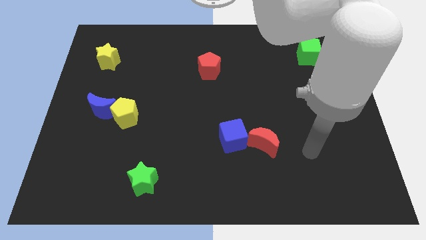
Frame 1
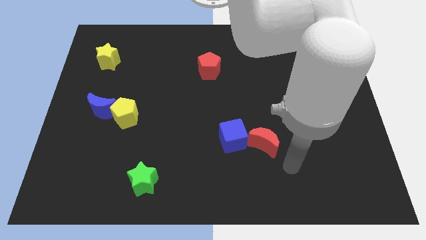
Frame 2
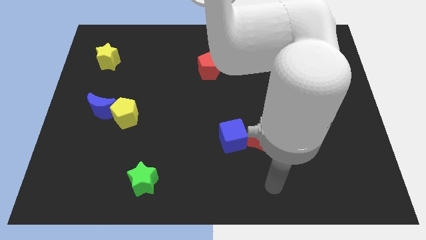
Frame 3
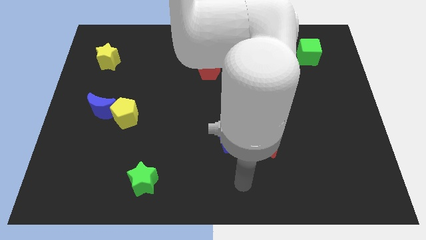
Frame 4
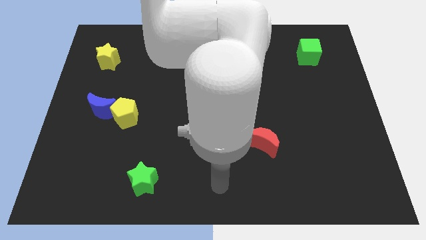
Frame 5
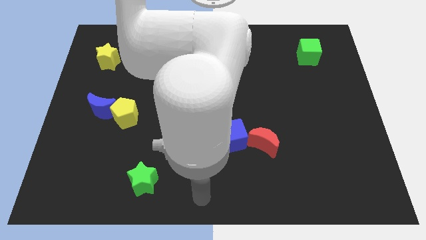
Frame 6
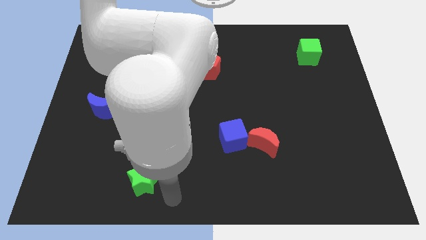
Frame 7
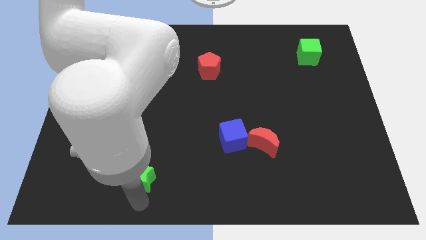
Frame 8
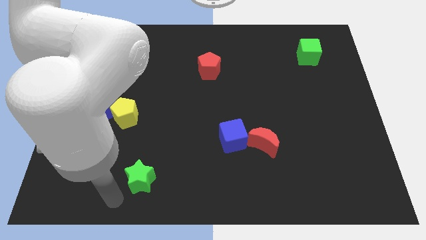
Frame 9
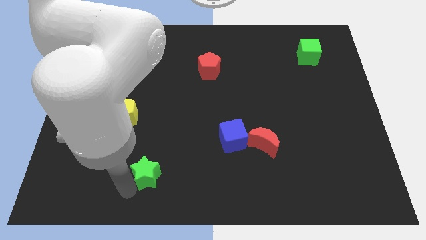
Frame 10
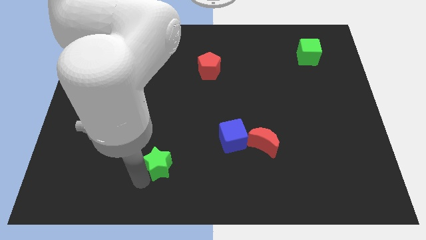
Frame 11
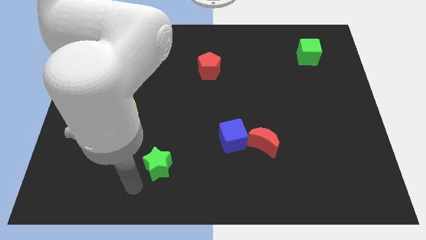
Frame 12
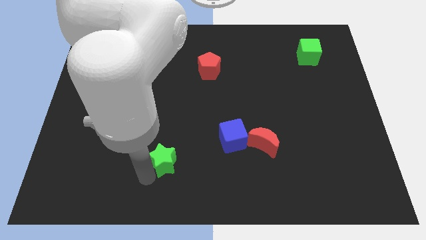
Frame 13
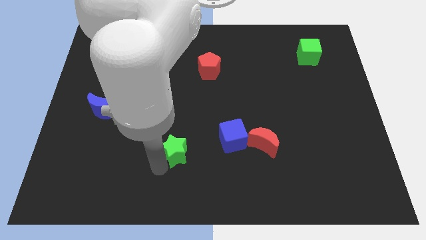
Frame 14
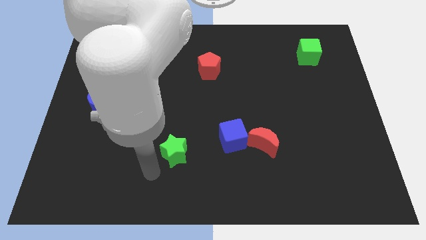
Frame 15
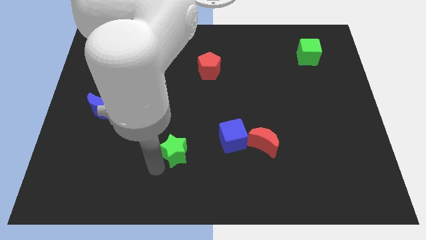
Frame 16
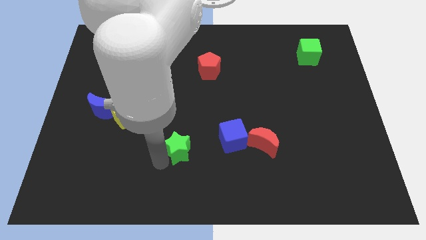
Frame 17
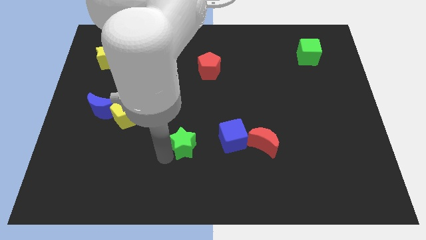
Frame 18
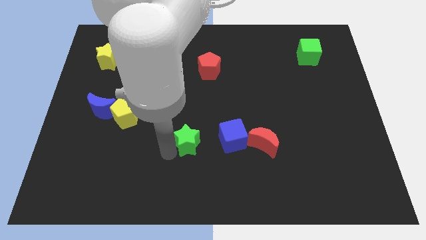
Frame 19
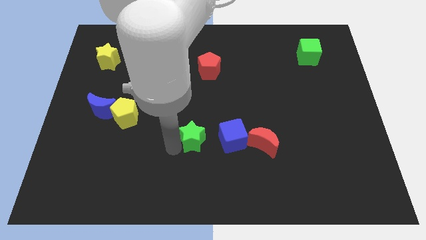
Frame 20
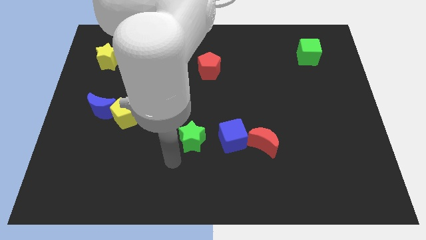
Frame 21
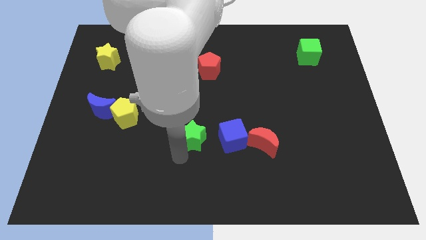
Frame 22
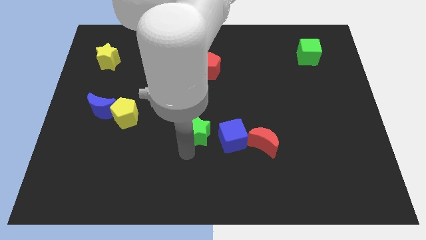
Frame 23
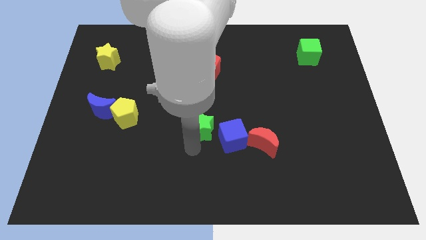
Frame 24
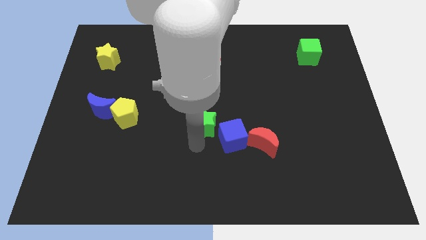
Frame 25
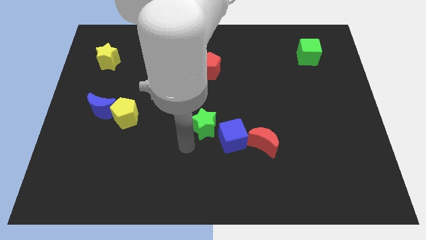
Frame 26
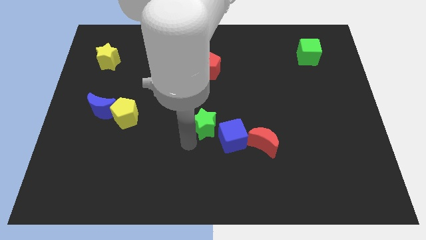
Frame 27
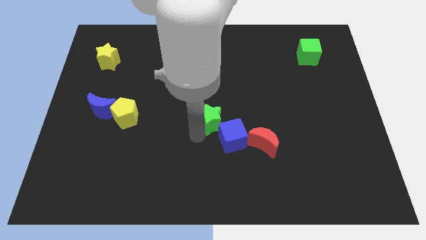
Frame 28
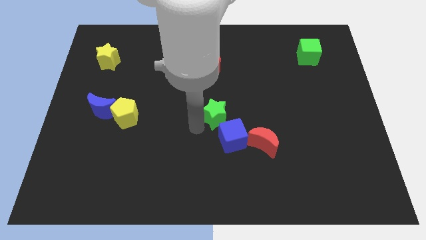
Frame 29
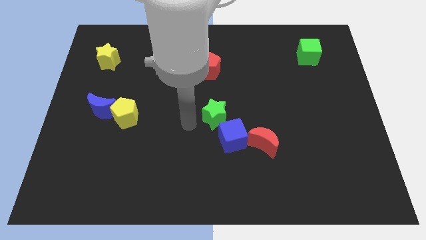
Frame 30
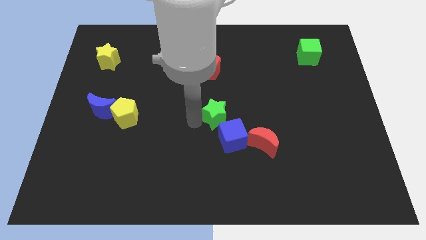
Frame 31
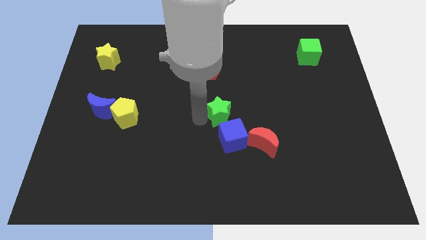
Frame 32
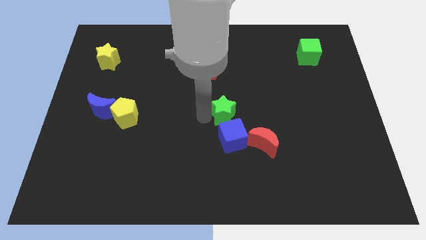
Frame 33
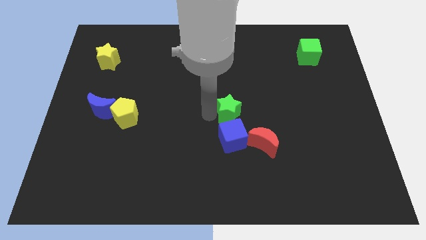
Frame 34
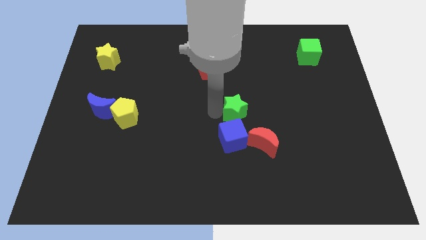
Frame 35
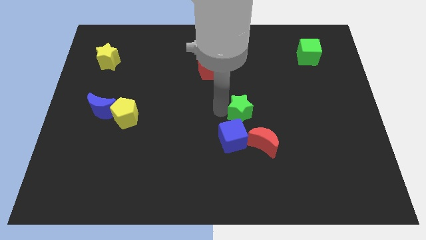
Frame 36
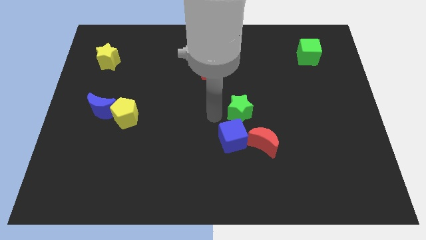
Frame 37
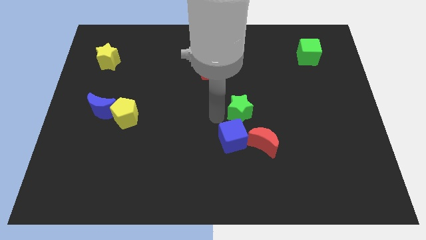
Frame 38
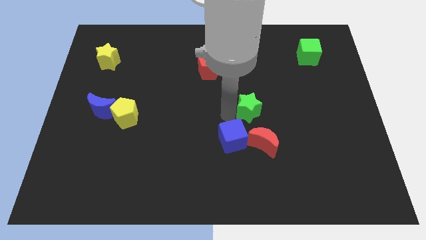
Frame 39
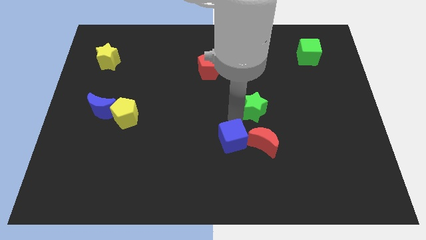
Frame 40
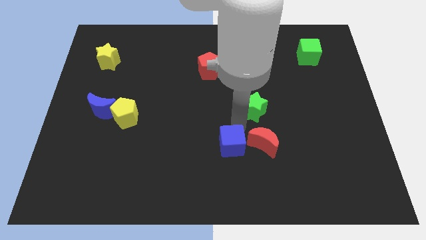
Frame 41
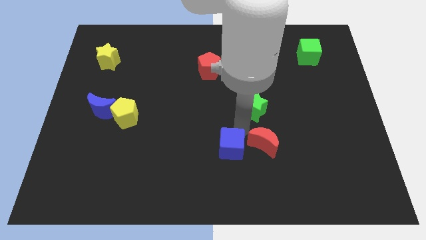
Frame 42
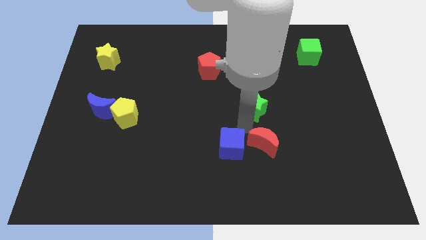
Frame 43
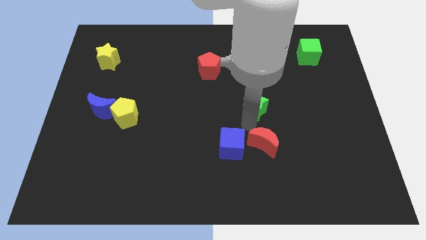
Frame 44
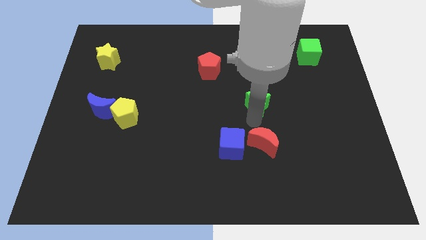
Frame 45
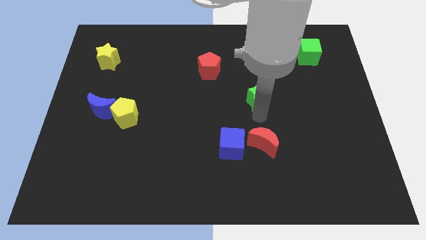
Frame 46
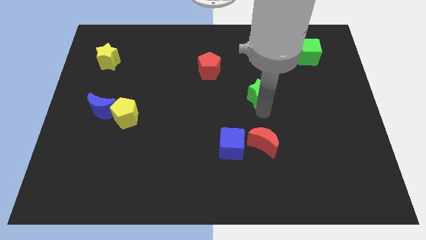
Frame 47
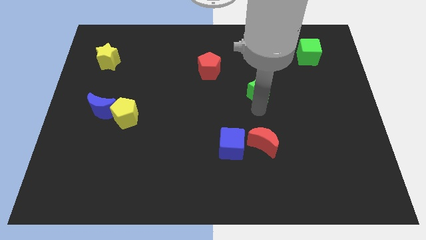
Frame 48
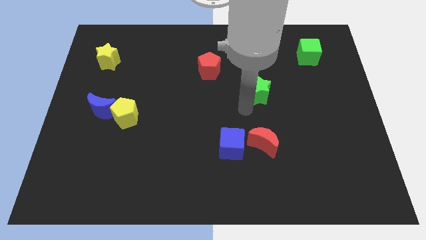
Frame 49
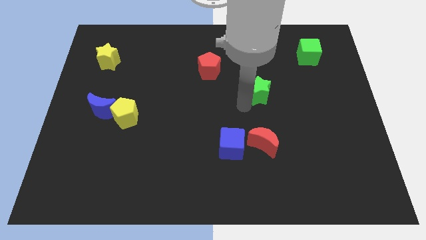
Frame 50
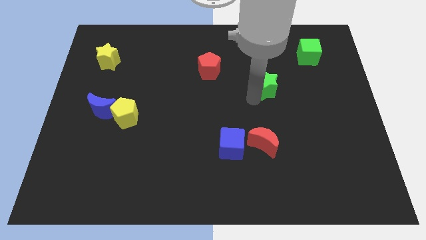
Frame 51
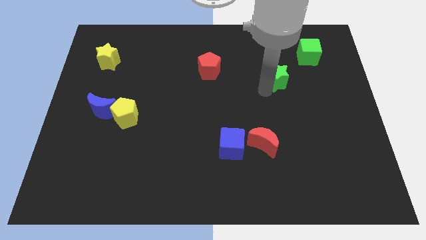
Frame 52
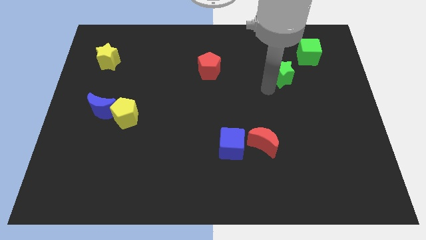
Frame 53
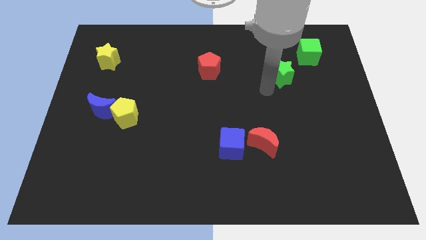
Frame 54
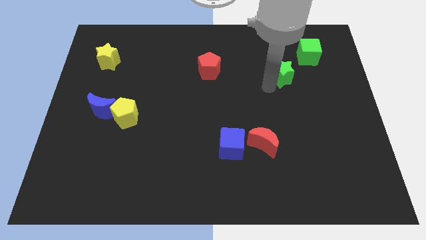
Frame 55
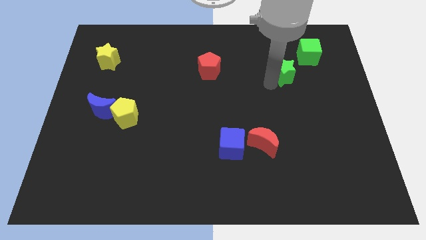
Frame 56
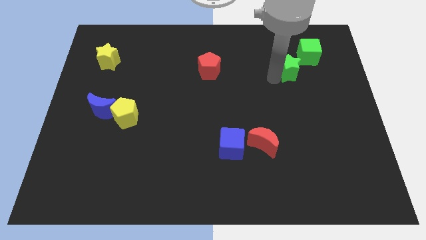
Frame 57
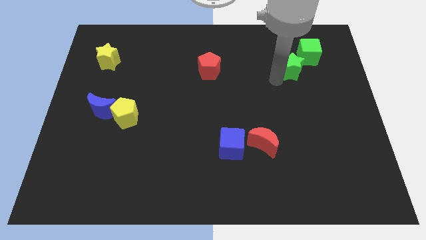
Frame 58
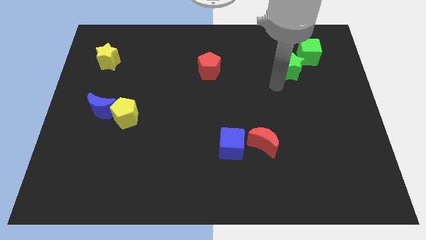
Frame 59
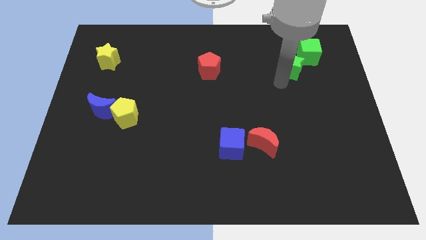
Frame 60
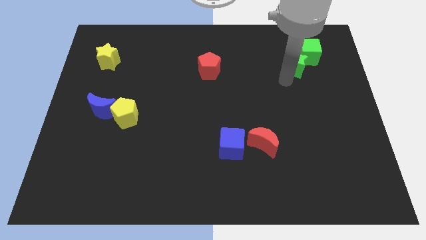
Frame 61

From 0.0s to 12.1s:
slide the green star to the green cube

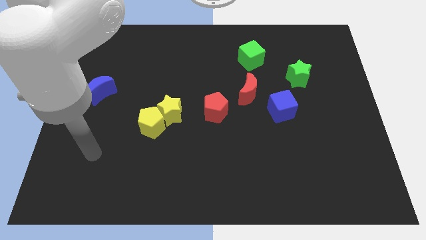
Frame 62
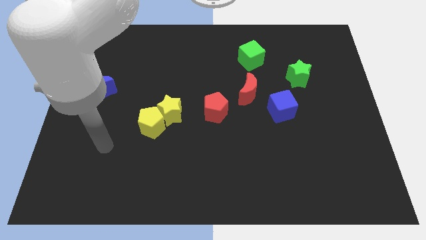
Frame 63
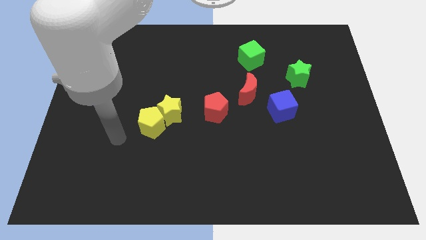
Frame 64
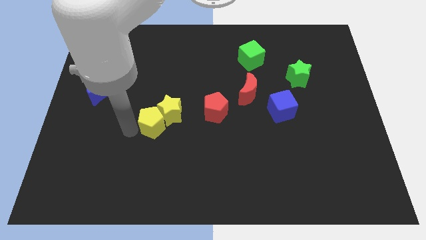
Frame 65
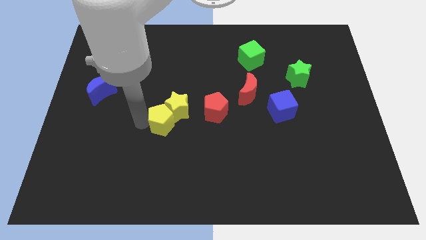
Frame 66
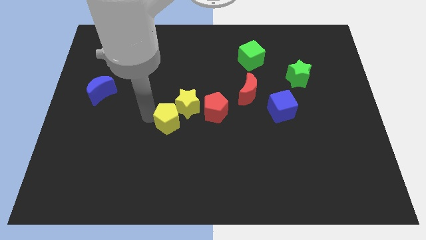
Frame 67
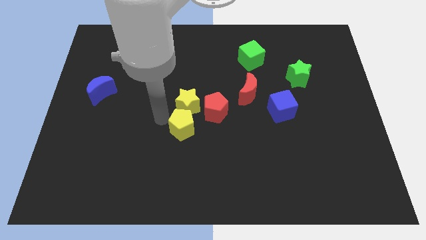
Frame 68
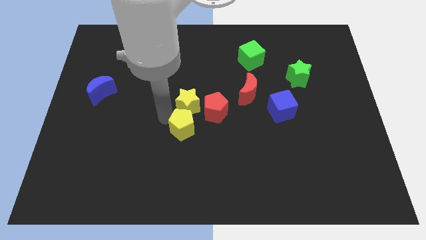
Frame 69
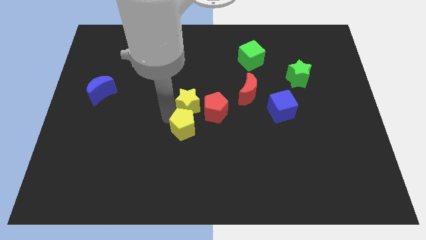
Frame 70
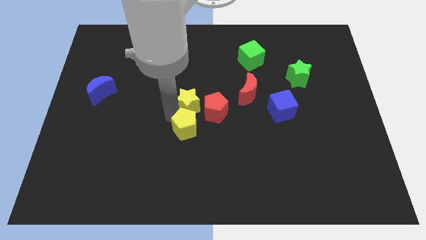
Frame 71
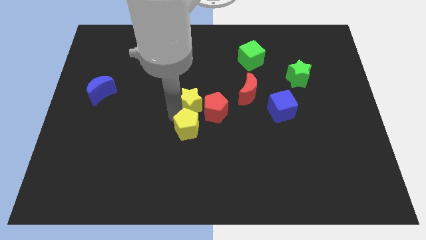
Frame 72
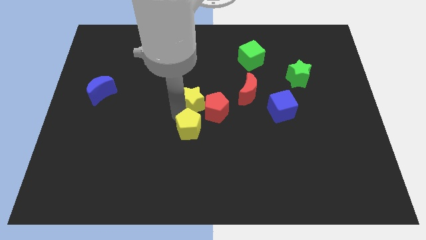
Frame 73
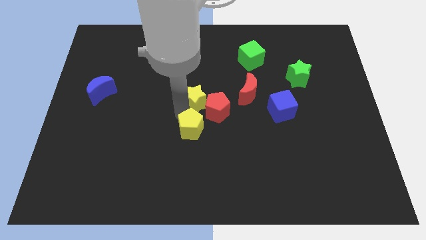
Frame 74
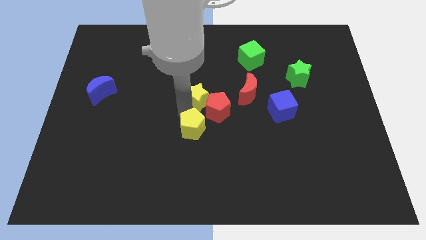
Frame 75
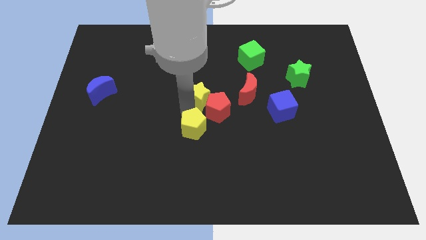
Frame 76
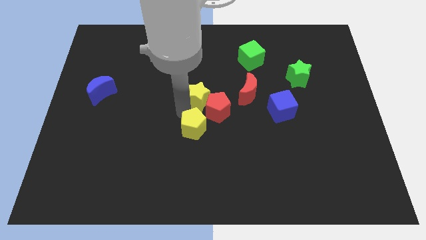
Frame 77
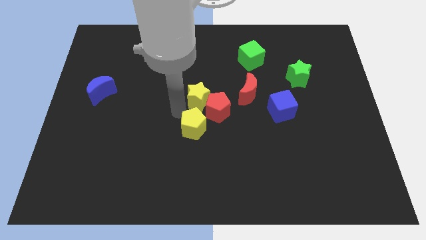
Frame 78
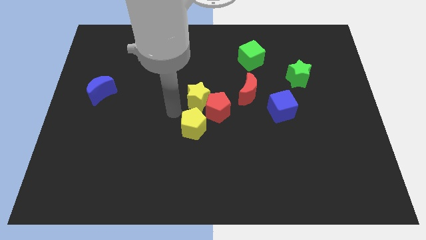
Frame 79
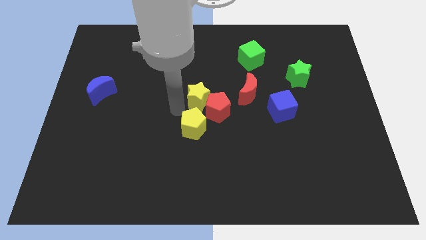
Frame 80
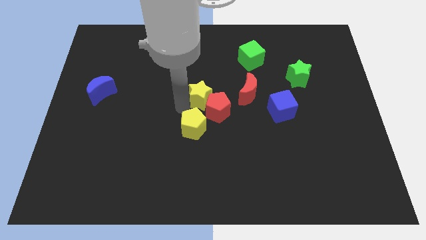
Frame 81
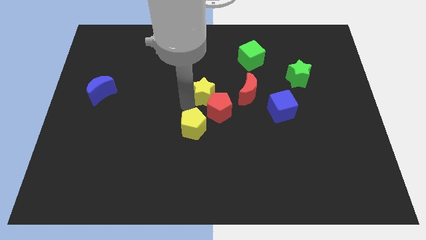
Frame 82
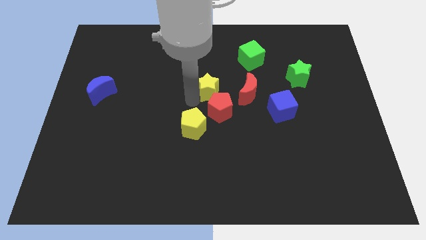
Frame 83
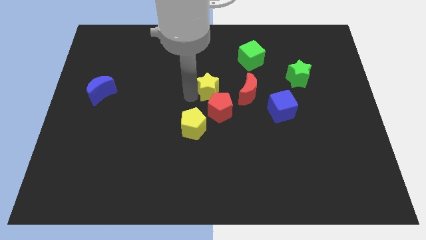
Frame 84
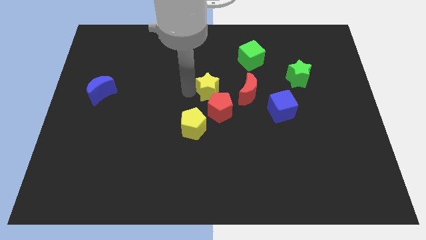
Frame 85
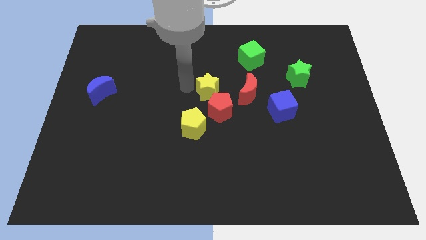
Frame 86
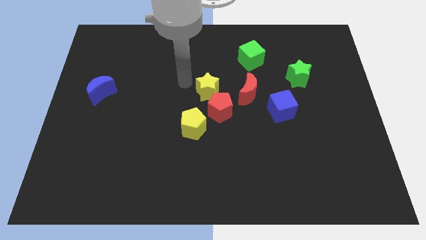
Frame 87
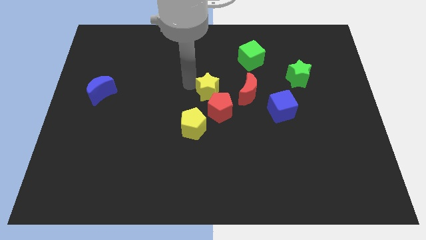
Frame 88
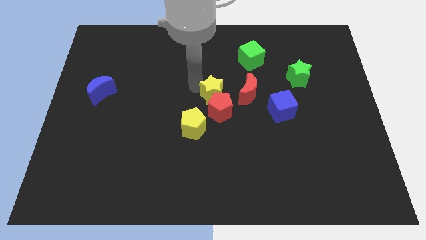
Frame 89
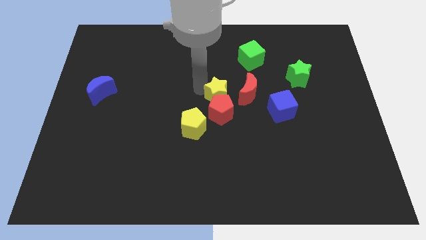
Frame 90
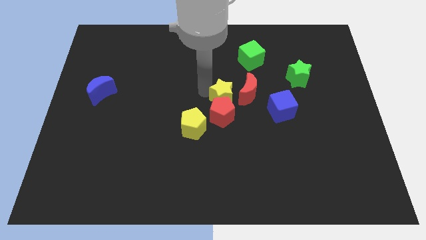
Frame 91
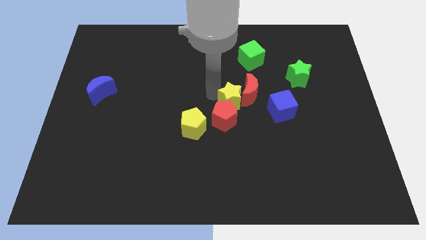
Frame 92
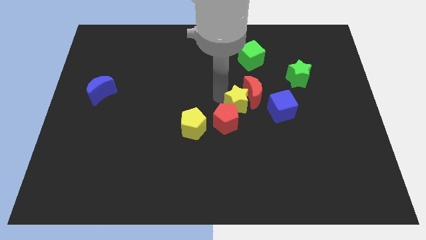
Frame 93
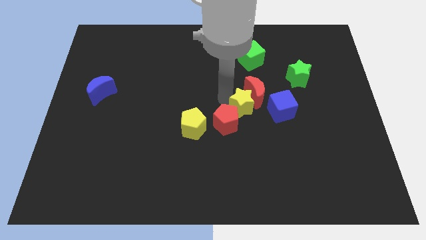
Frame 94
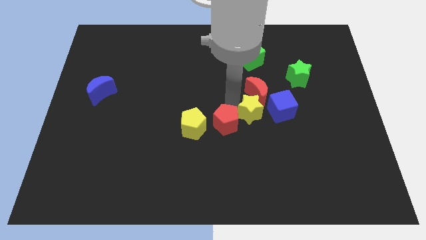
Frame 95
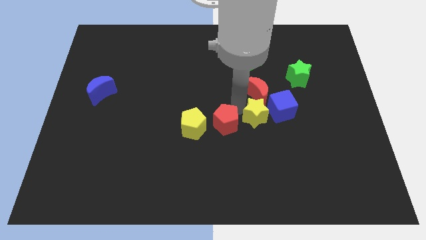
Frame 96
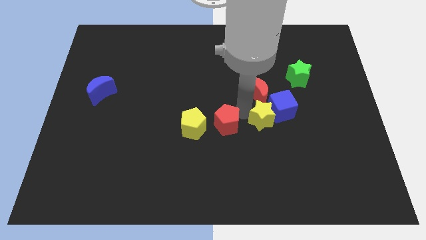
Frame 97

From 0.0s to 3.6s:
move the yellow star close to the blue cube
